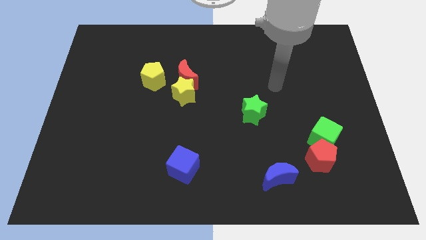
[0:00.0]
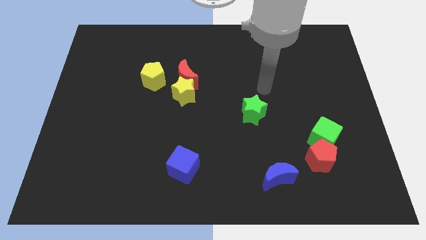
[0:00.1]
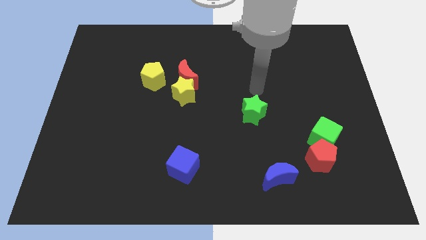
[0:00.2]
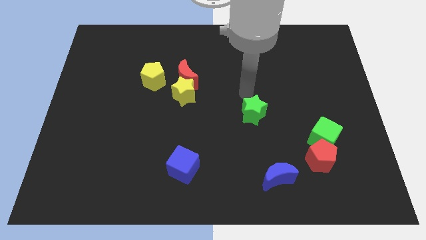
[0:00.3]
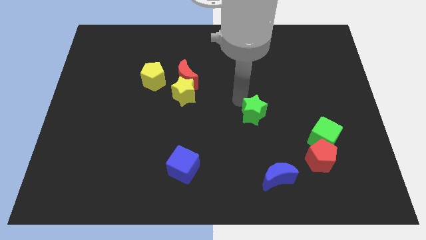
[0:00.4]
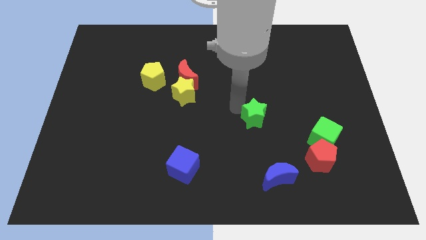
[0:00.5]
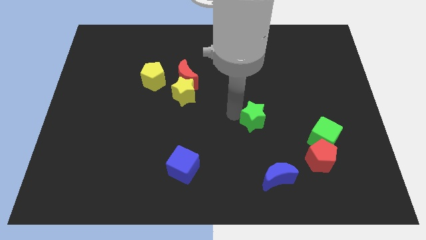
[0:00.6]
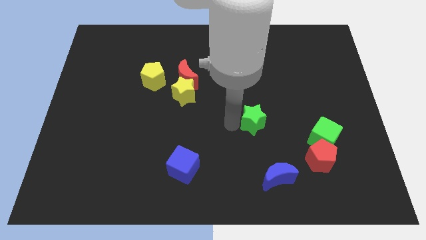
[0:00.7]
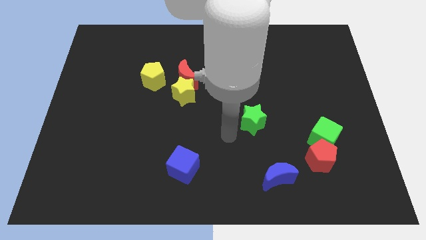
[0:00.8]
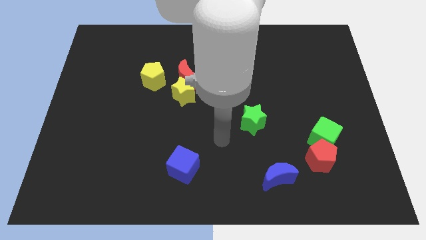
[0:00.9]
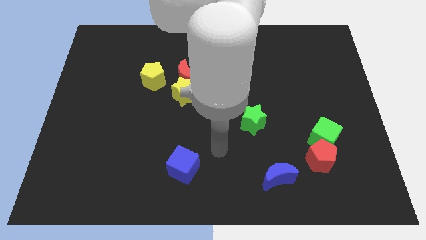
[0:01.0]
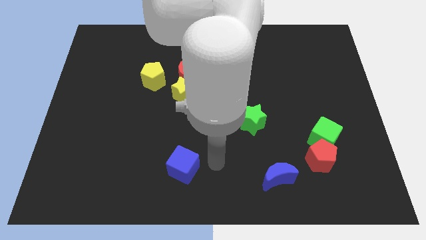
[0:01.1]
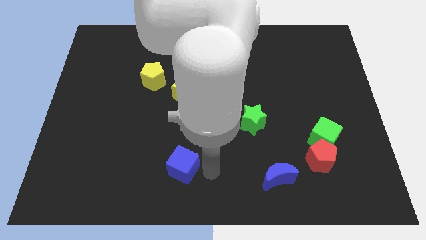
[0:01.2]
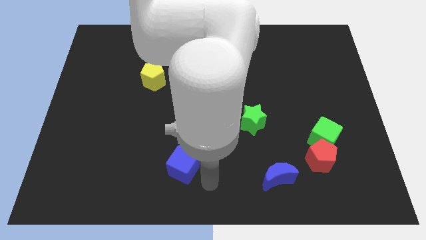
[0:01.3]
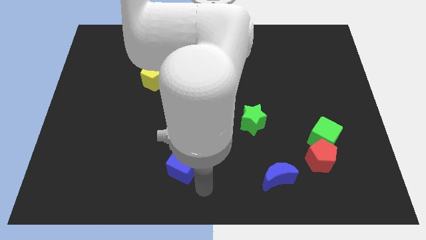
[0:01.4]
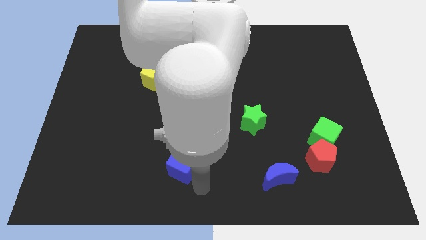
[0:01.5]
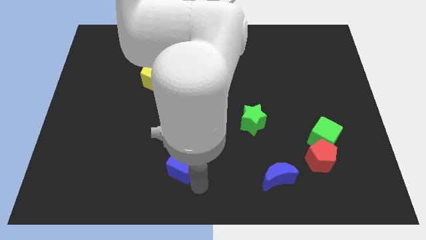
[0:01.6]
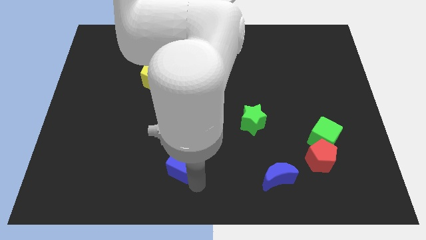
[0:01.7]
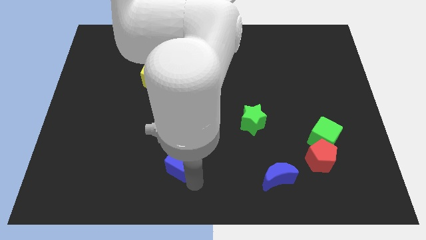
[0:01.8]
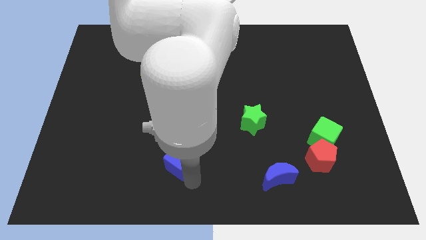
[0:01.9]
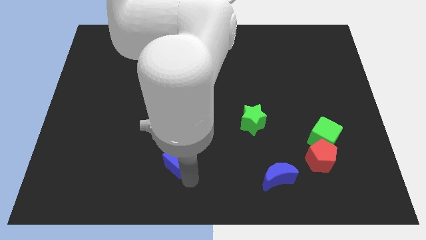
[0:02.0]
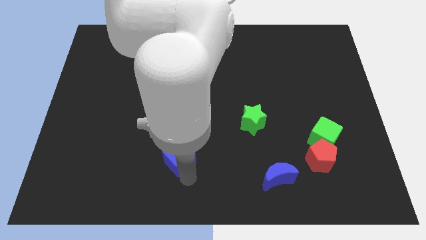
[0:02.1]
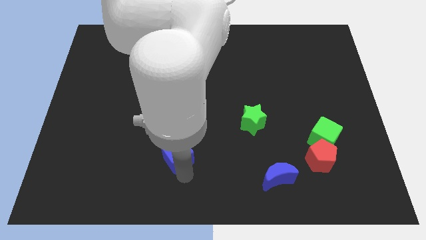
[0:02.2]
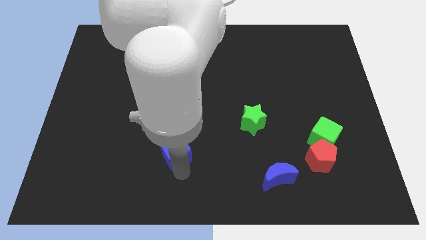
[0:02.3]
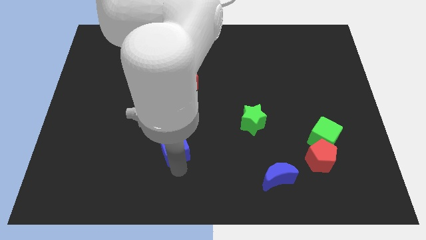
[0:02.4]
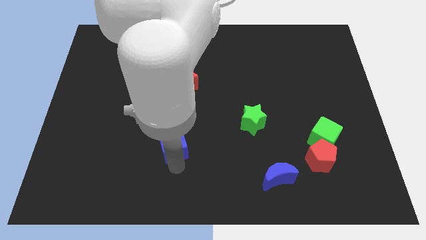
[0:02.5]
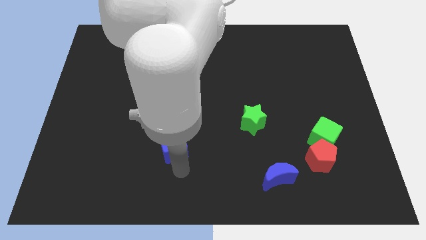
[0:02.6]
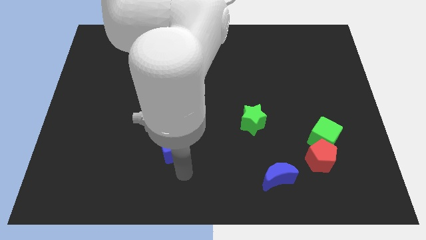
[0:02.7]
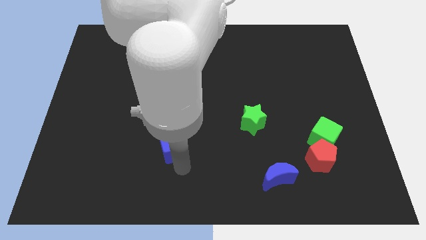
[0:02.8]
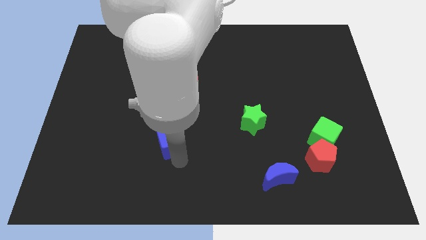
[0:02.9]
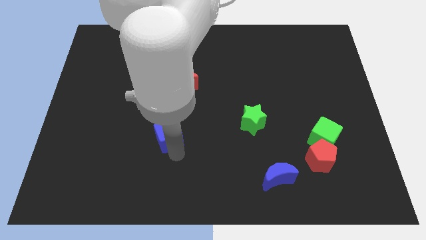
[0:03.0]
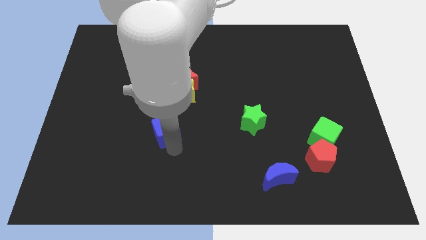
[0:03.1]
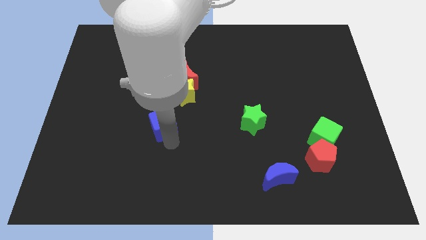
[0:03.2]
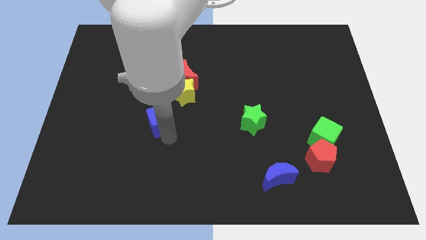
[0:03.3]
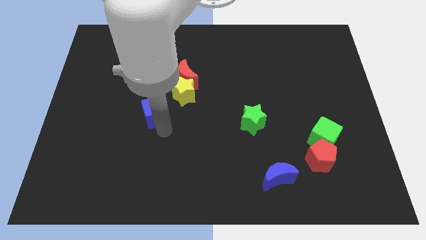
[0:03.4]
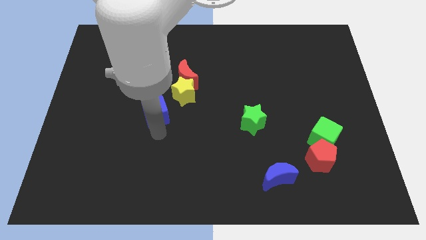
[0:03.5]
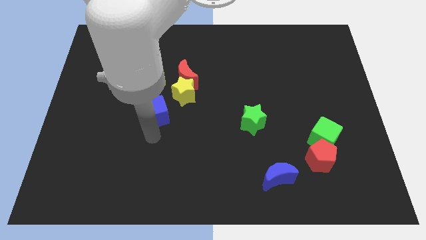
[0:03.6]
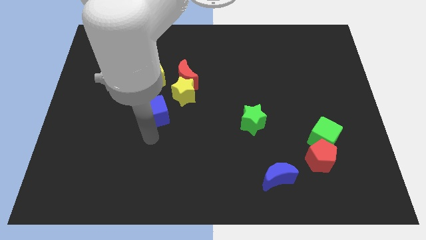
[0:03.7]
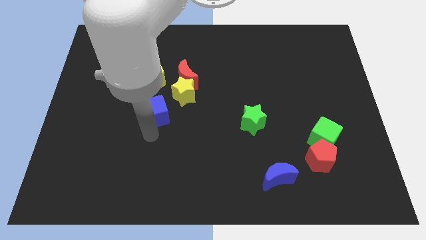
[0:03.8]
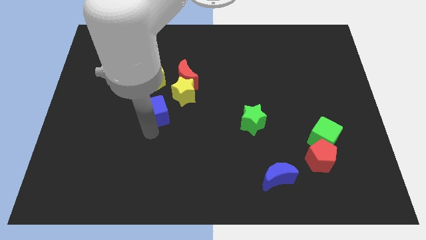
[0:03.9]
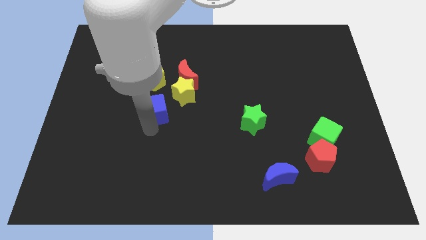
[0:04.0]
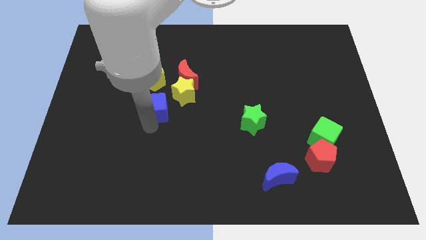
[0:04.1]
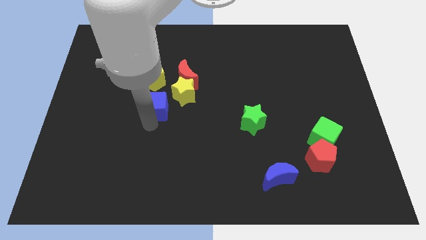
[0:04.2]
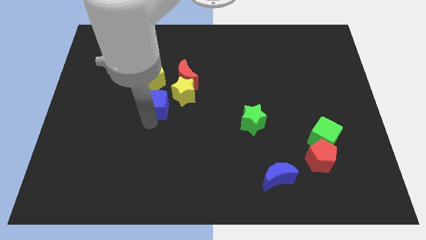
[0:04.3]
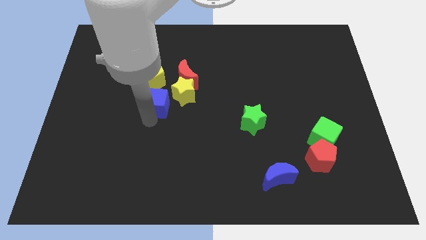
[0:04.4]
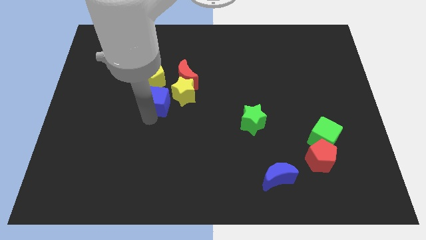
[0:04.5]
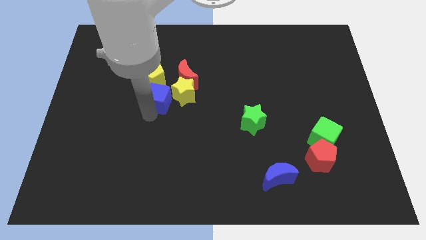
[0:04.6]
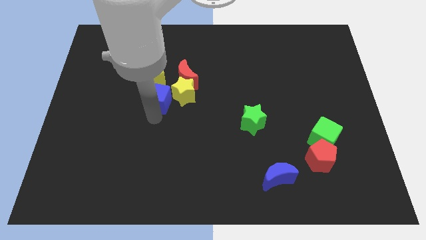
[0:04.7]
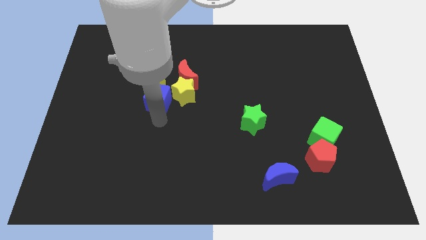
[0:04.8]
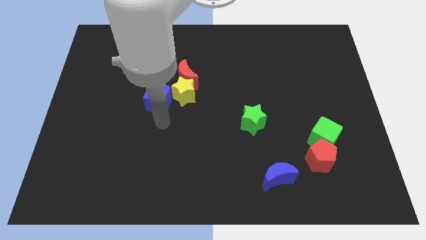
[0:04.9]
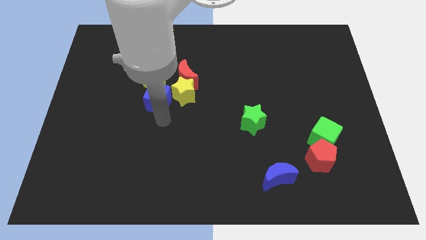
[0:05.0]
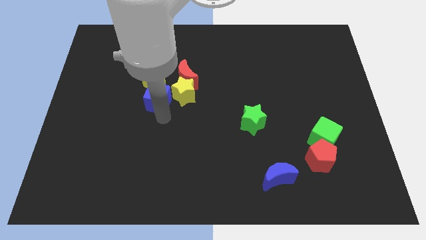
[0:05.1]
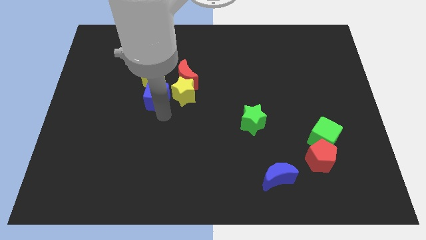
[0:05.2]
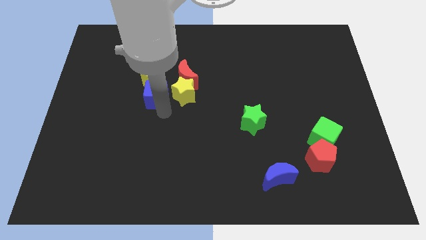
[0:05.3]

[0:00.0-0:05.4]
move the blue cube next to the yellow pentagon

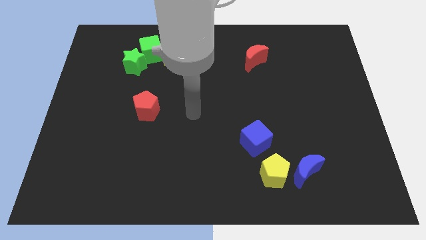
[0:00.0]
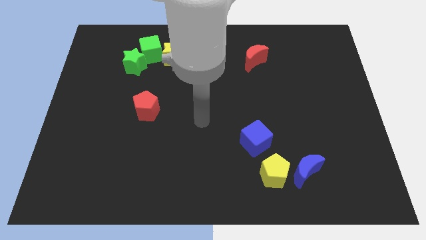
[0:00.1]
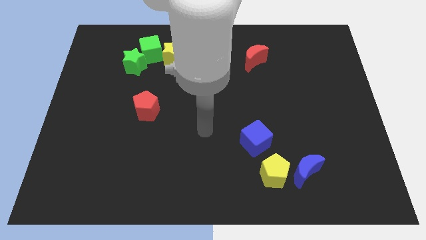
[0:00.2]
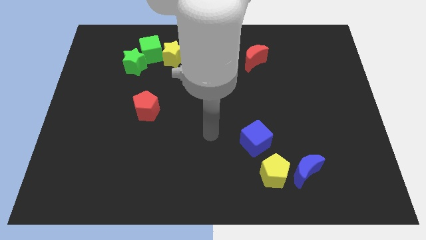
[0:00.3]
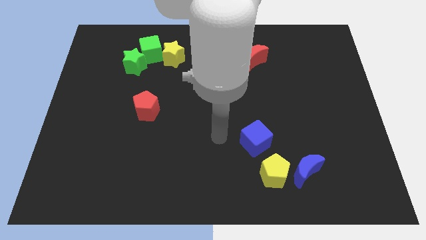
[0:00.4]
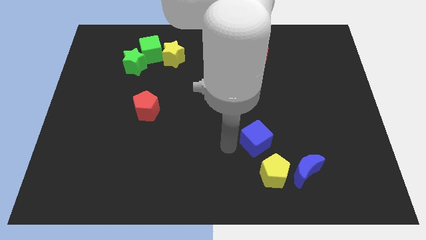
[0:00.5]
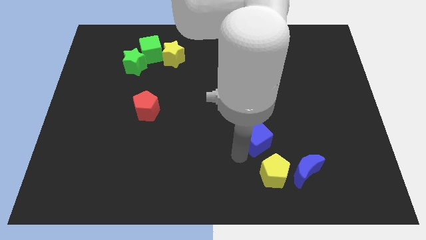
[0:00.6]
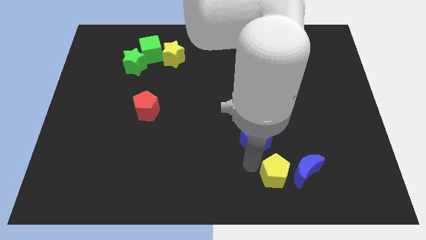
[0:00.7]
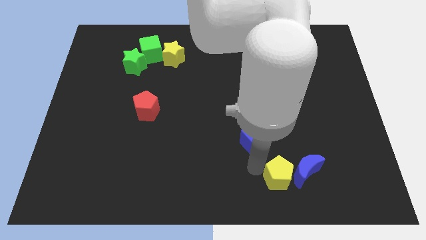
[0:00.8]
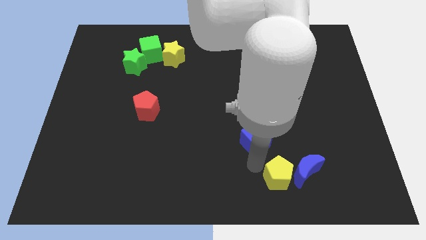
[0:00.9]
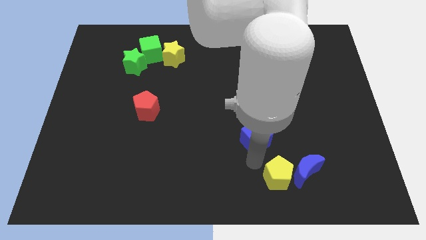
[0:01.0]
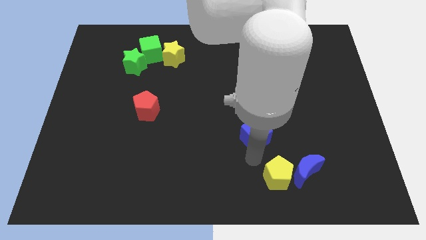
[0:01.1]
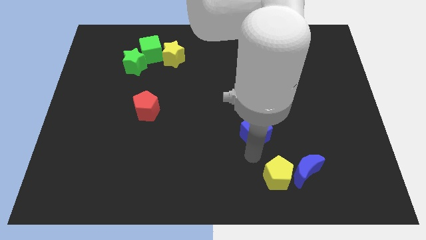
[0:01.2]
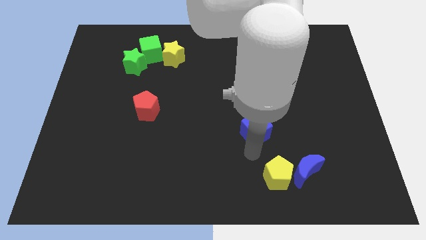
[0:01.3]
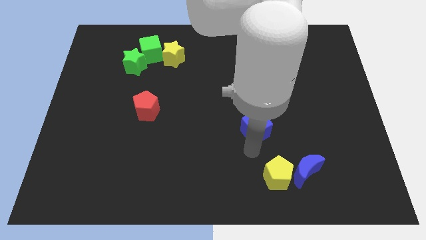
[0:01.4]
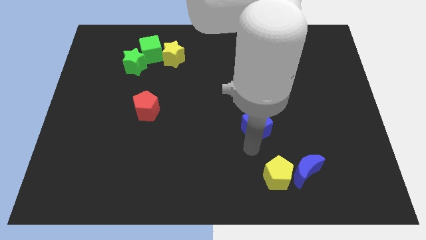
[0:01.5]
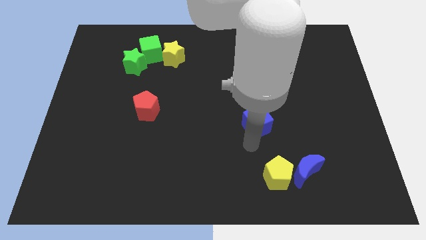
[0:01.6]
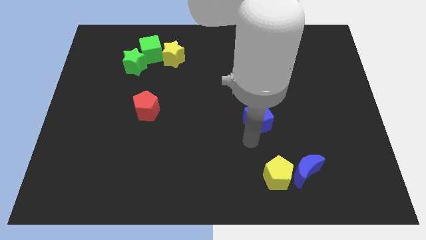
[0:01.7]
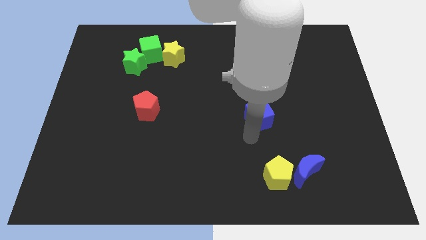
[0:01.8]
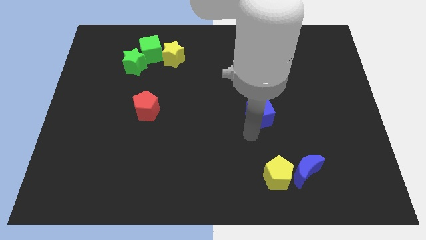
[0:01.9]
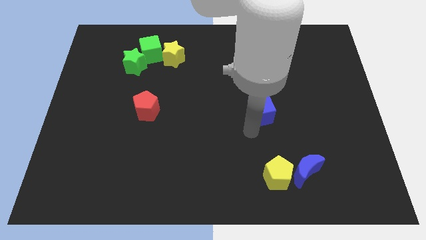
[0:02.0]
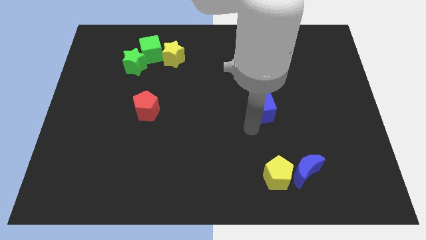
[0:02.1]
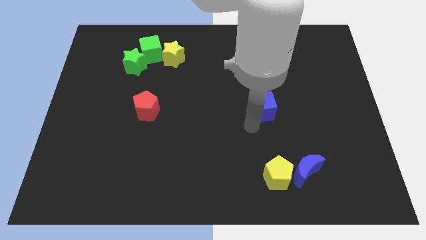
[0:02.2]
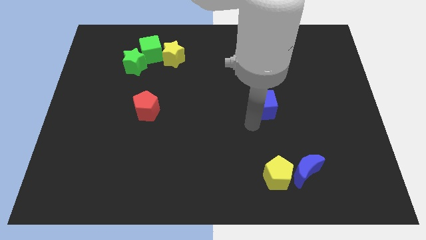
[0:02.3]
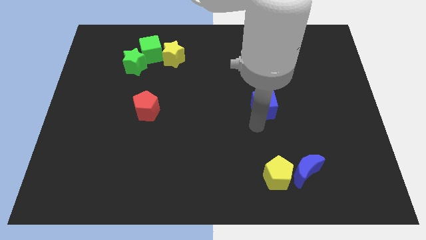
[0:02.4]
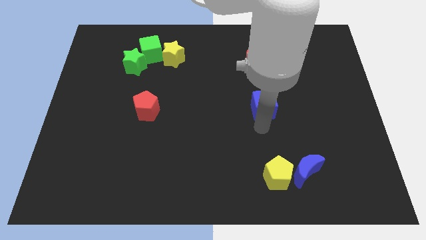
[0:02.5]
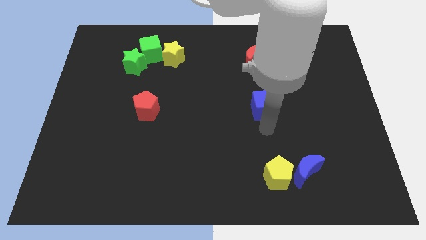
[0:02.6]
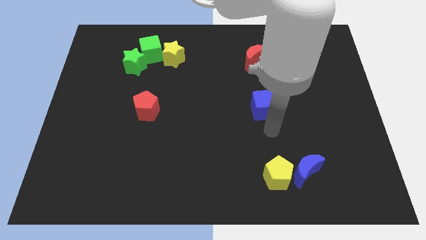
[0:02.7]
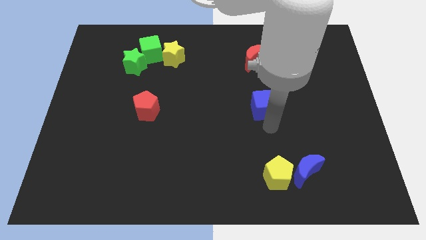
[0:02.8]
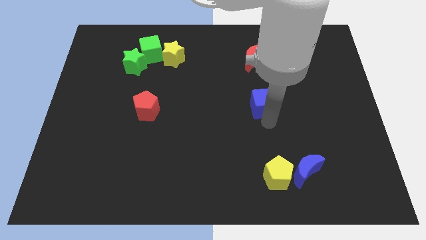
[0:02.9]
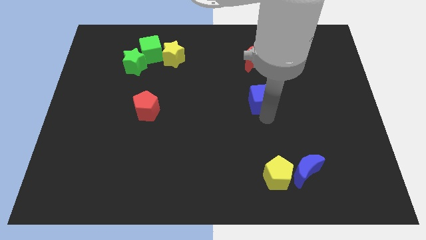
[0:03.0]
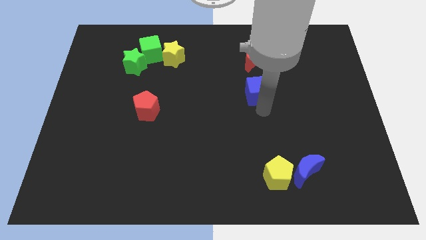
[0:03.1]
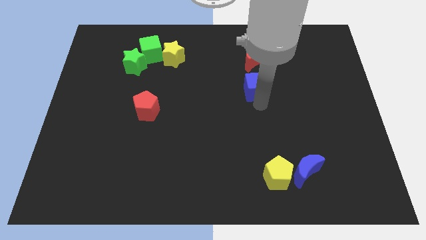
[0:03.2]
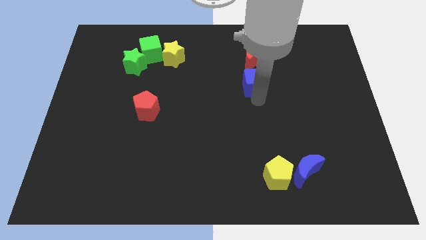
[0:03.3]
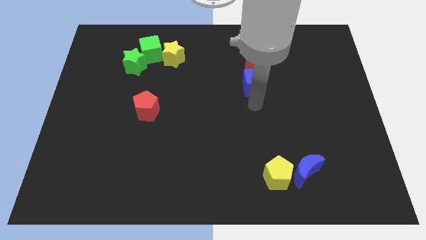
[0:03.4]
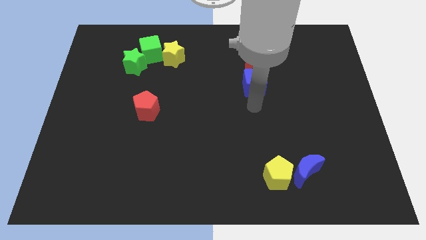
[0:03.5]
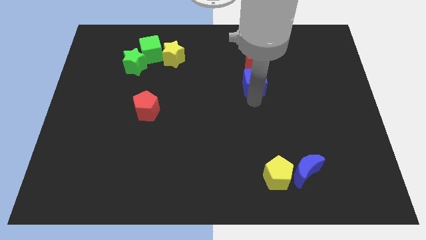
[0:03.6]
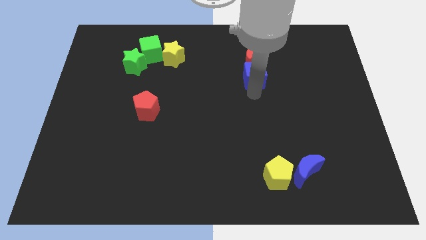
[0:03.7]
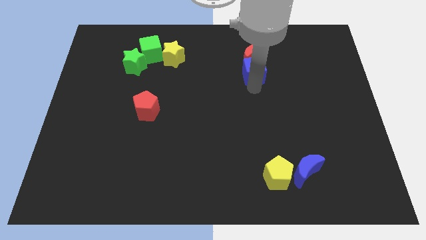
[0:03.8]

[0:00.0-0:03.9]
slide the blue cube to the red moon
